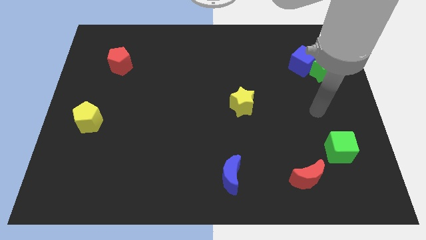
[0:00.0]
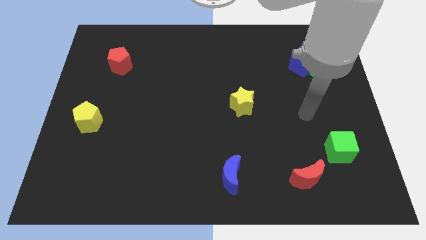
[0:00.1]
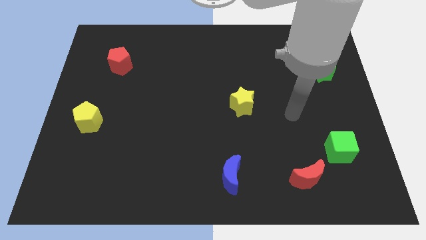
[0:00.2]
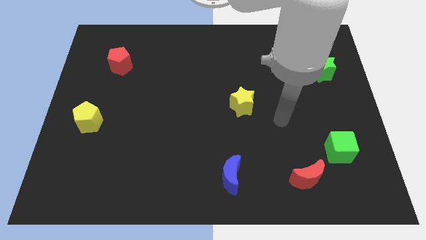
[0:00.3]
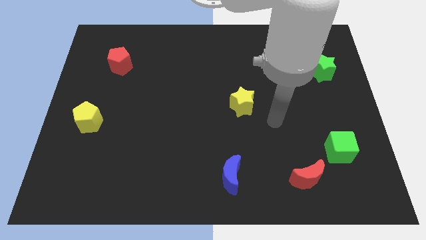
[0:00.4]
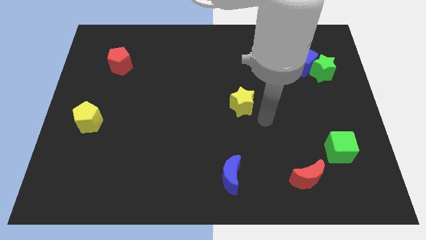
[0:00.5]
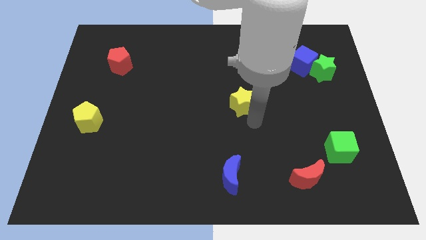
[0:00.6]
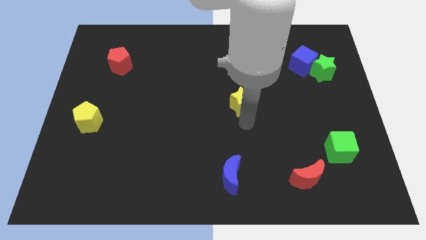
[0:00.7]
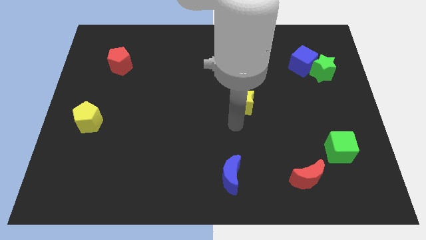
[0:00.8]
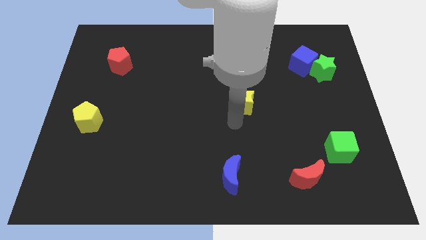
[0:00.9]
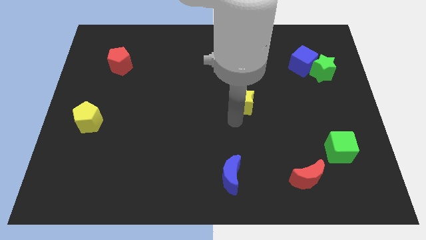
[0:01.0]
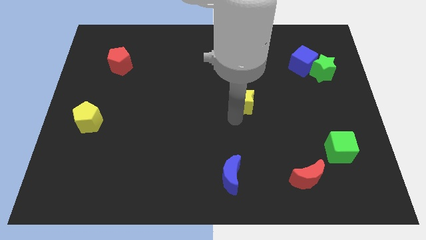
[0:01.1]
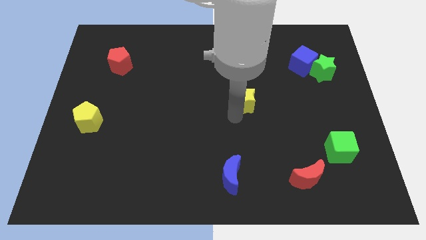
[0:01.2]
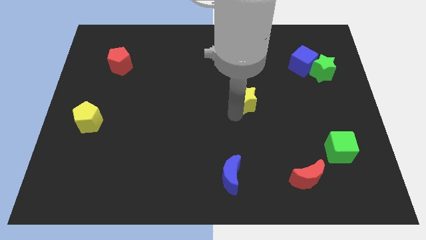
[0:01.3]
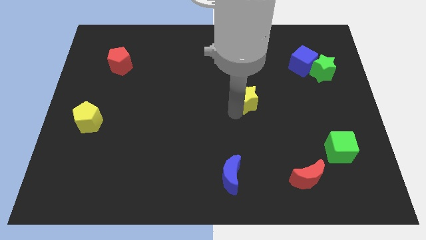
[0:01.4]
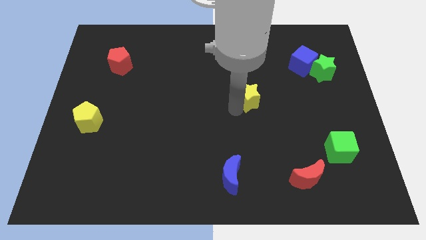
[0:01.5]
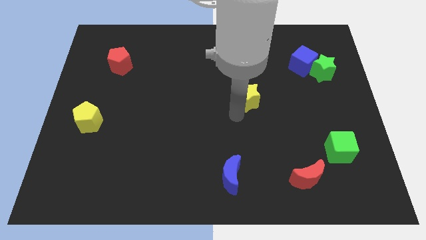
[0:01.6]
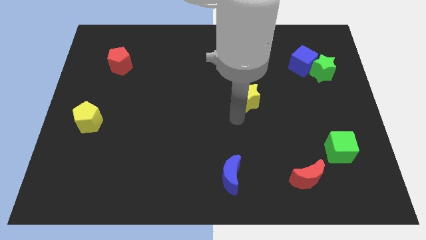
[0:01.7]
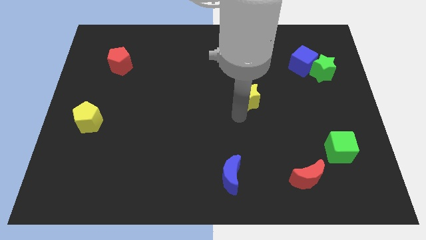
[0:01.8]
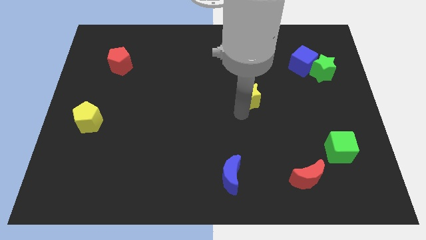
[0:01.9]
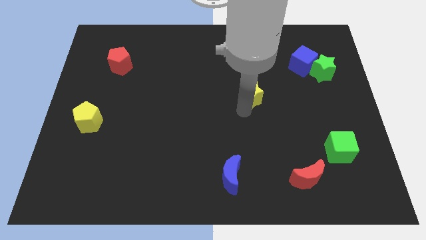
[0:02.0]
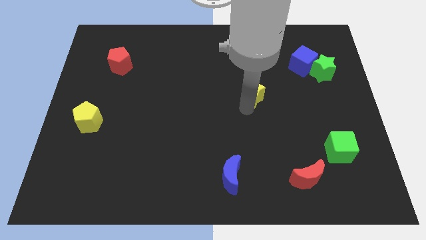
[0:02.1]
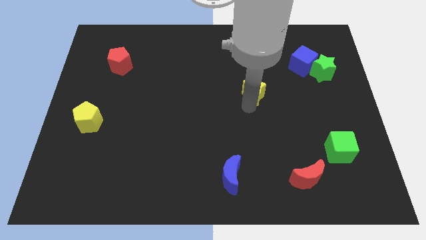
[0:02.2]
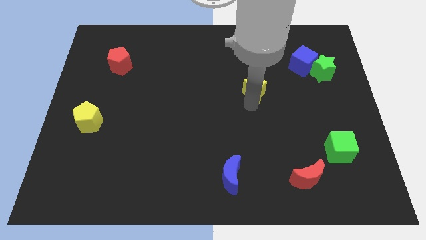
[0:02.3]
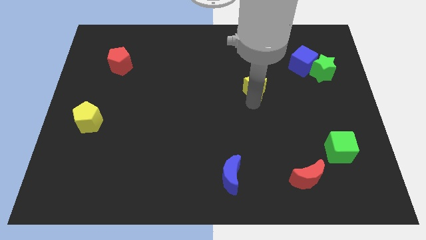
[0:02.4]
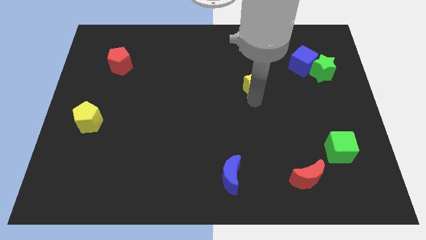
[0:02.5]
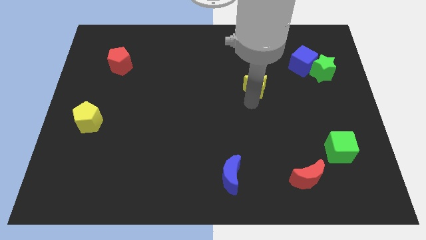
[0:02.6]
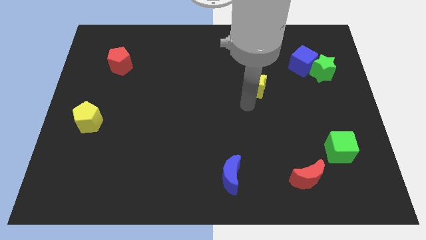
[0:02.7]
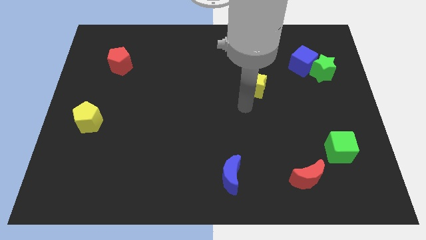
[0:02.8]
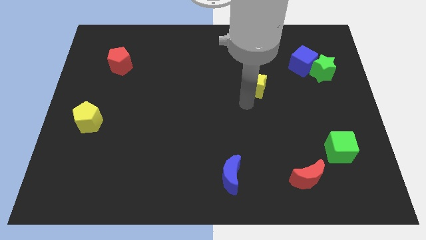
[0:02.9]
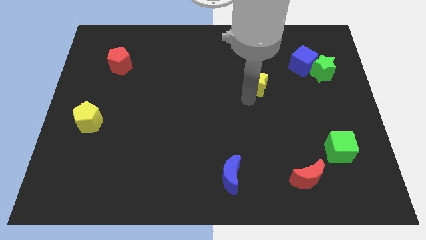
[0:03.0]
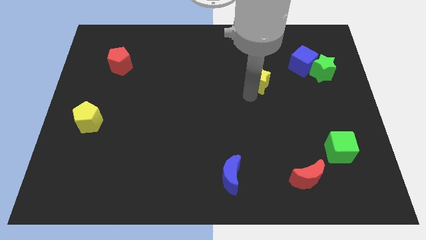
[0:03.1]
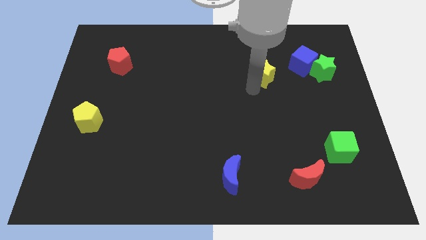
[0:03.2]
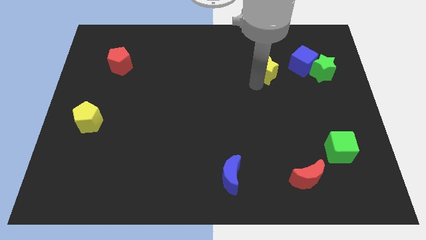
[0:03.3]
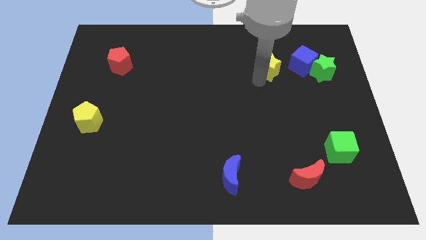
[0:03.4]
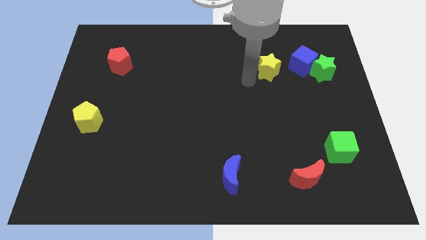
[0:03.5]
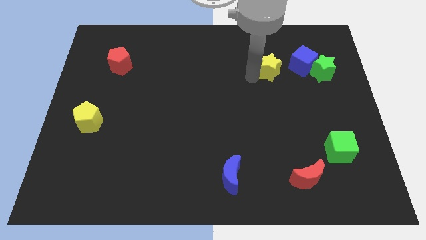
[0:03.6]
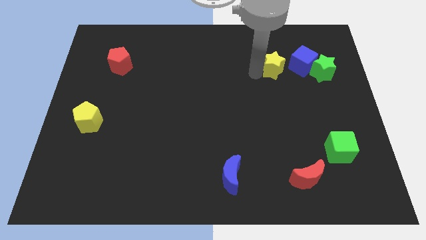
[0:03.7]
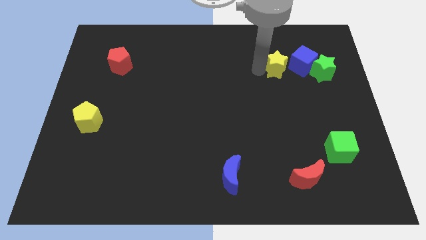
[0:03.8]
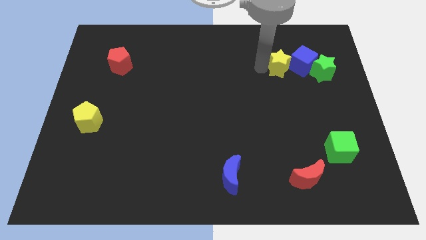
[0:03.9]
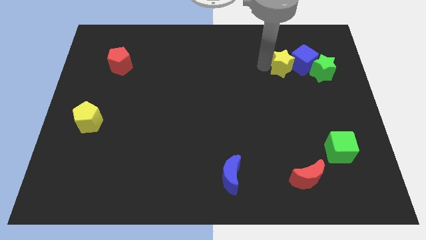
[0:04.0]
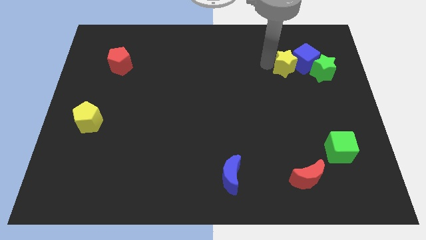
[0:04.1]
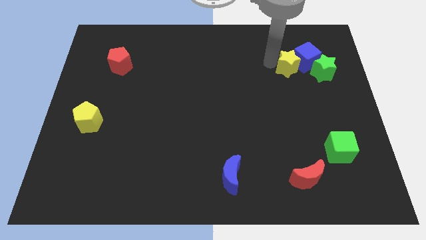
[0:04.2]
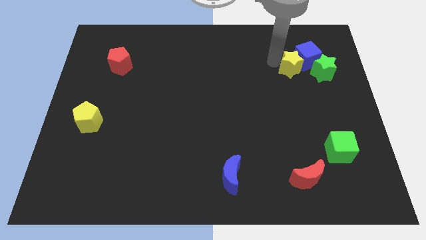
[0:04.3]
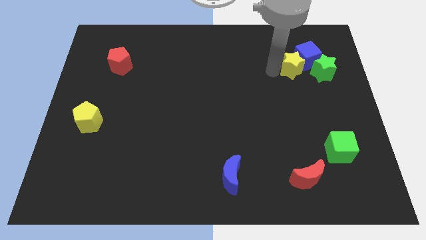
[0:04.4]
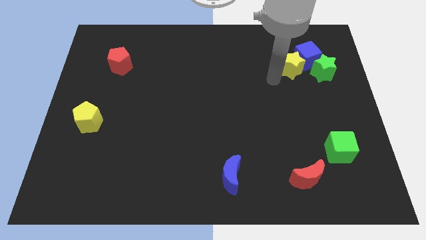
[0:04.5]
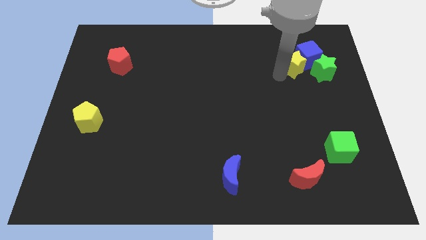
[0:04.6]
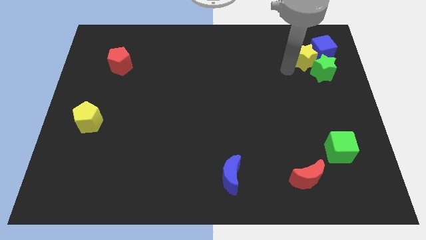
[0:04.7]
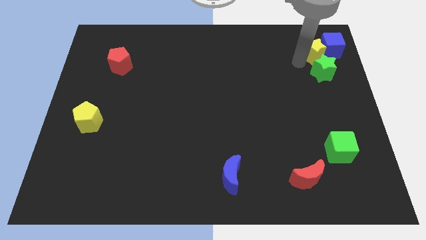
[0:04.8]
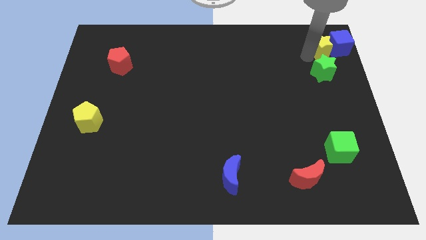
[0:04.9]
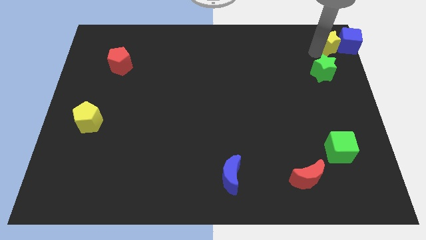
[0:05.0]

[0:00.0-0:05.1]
slide the yellow star to the top right of the board
